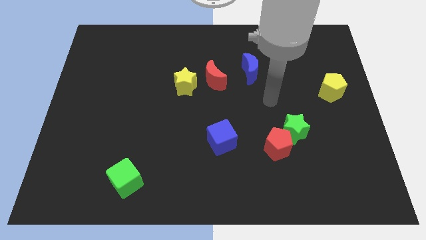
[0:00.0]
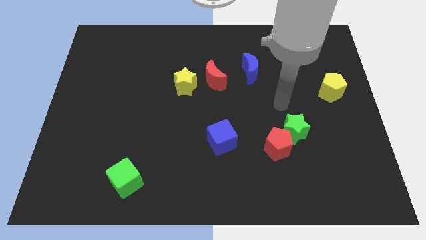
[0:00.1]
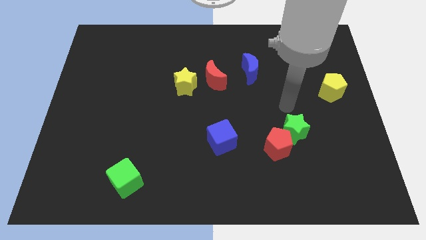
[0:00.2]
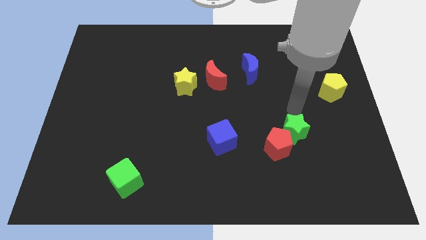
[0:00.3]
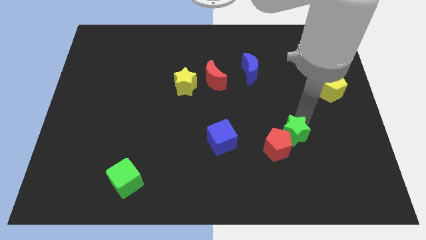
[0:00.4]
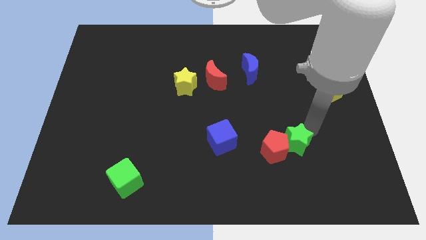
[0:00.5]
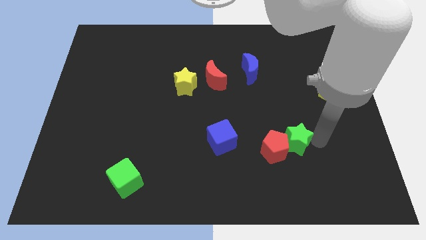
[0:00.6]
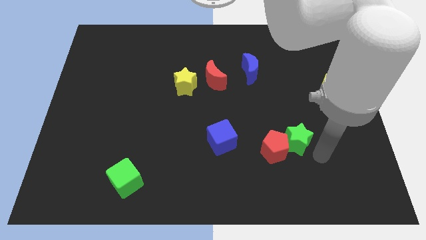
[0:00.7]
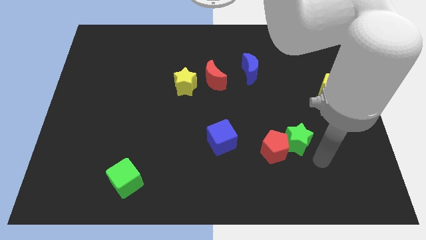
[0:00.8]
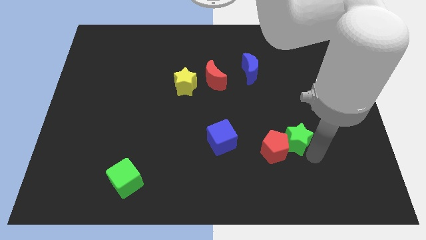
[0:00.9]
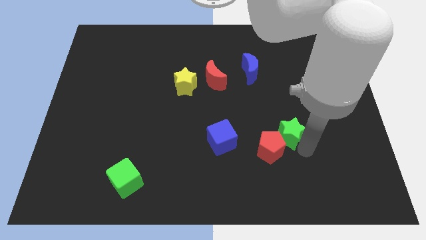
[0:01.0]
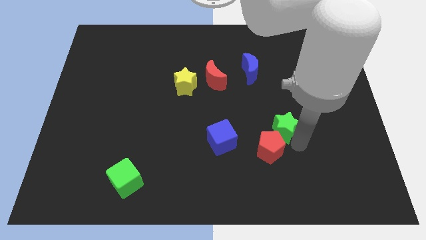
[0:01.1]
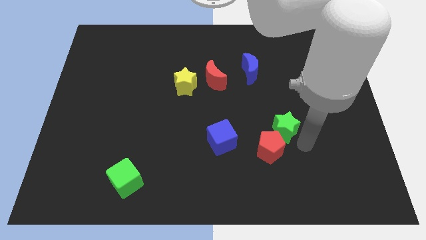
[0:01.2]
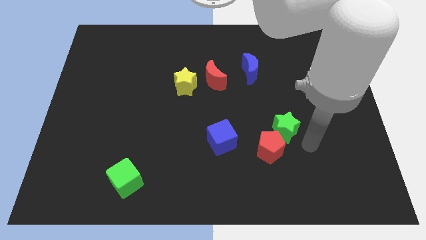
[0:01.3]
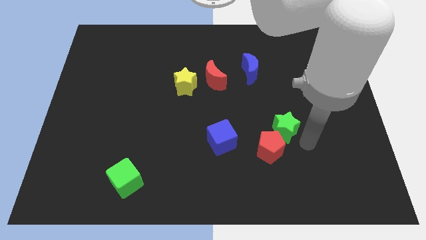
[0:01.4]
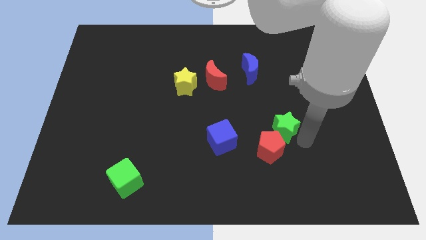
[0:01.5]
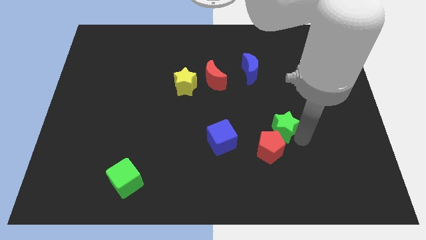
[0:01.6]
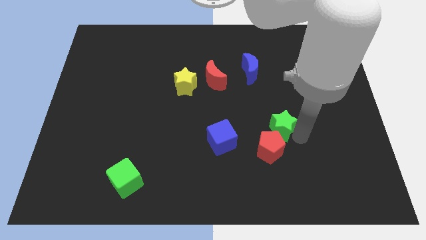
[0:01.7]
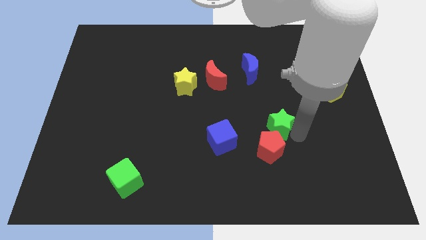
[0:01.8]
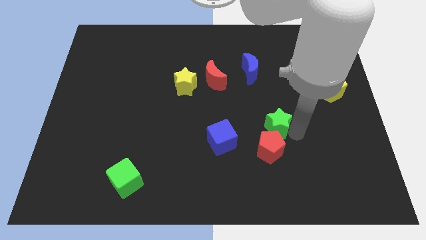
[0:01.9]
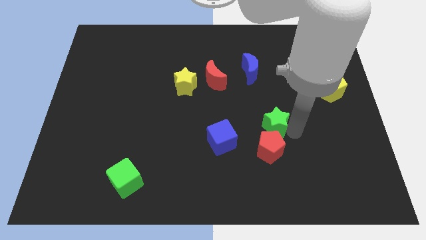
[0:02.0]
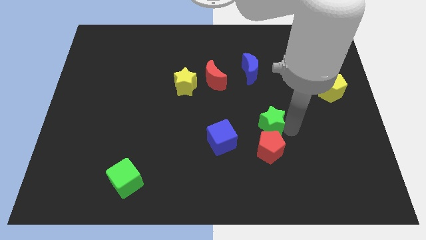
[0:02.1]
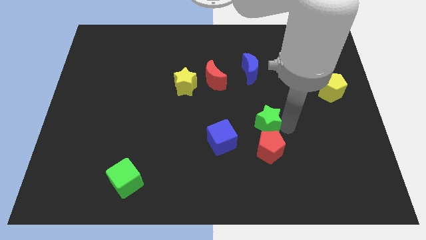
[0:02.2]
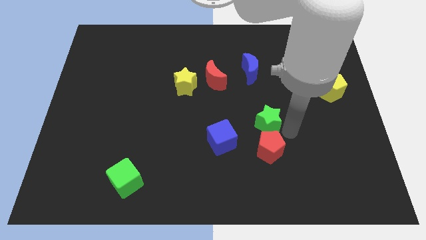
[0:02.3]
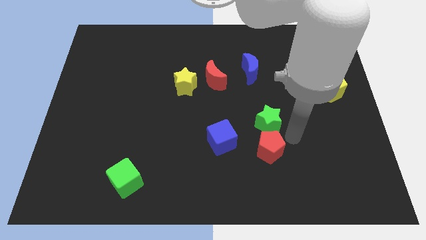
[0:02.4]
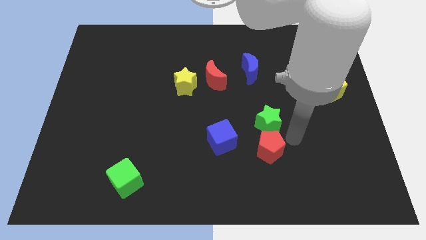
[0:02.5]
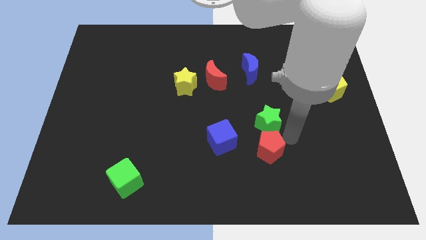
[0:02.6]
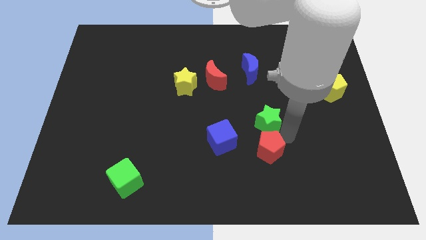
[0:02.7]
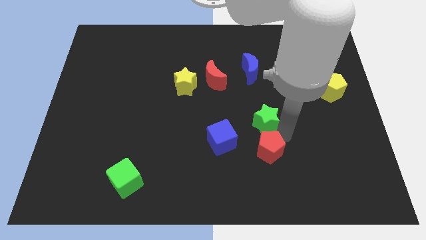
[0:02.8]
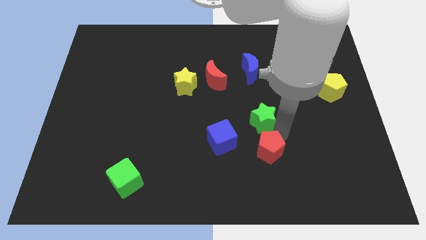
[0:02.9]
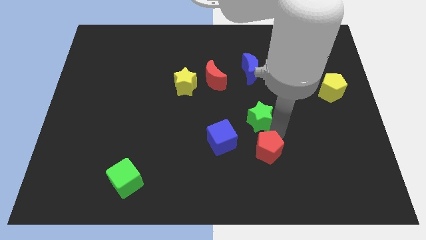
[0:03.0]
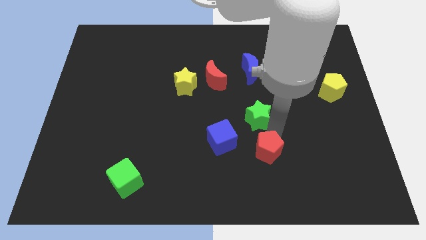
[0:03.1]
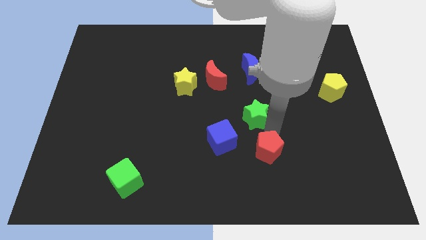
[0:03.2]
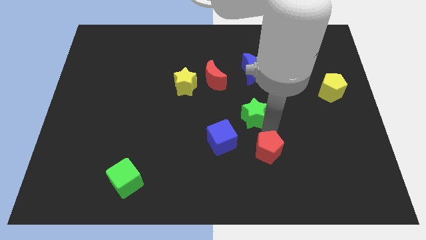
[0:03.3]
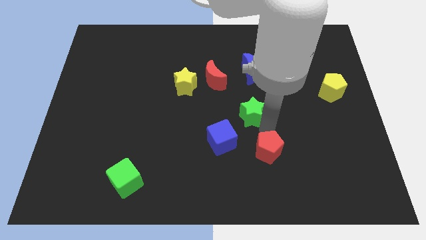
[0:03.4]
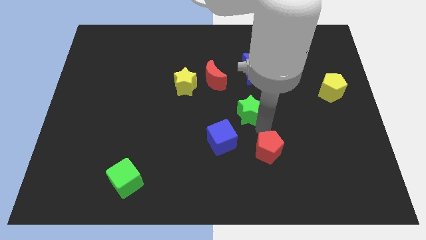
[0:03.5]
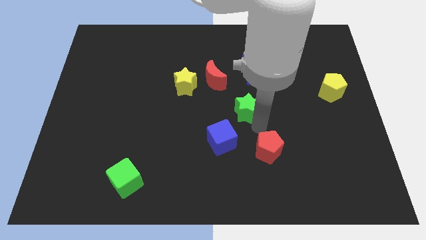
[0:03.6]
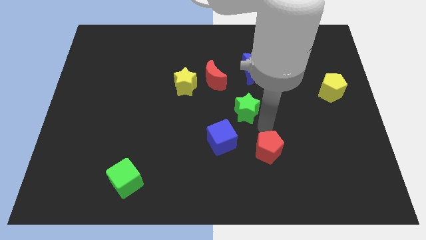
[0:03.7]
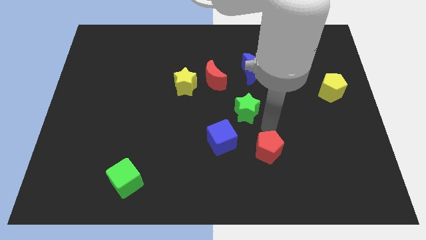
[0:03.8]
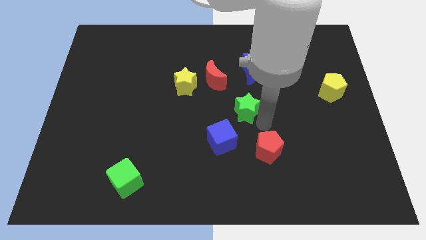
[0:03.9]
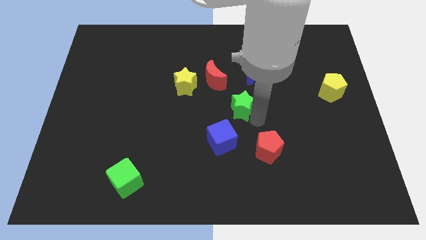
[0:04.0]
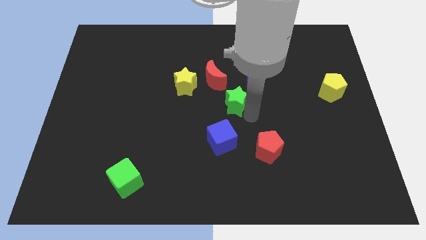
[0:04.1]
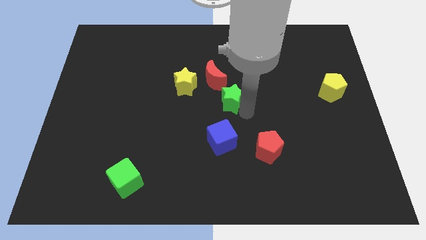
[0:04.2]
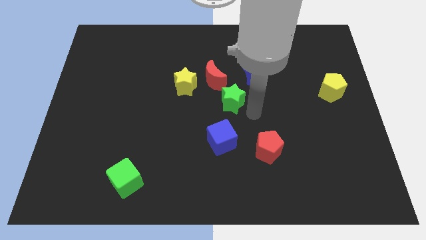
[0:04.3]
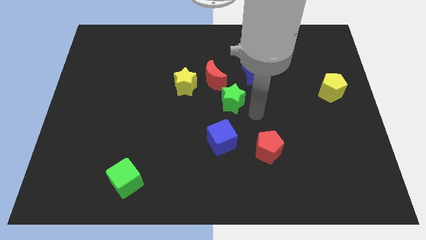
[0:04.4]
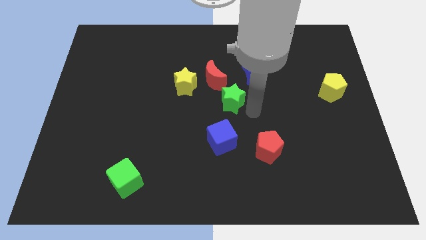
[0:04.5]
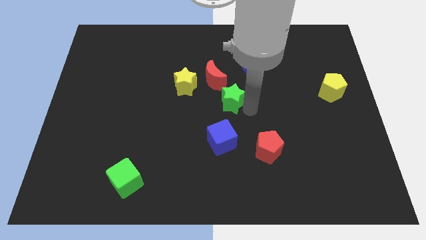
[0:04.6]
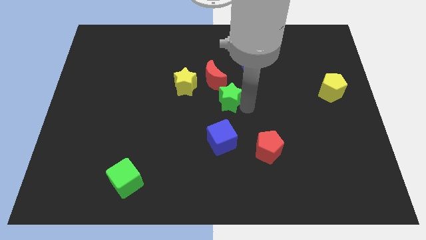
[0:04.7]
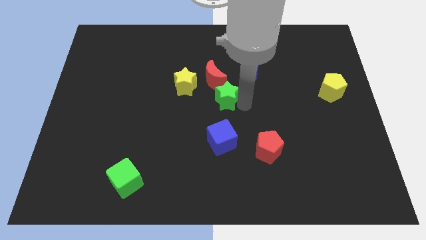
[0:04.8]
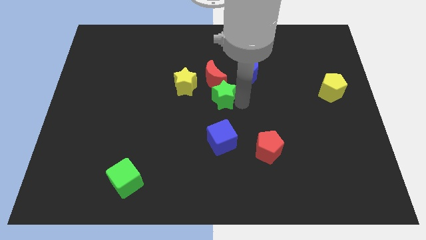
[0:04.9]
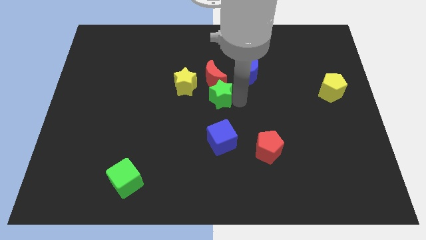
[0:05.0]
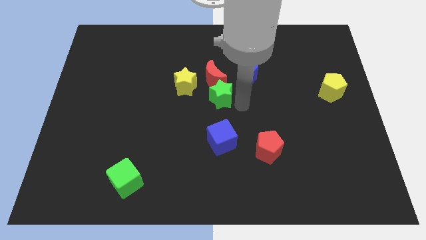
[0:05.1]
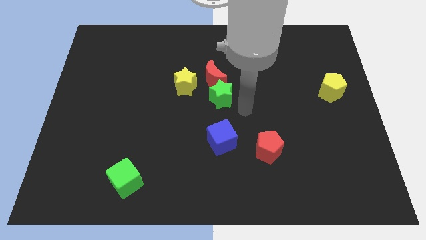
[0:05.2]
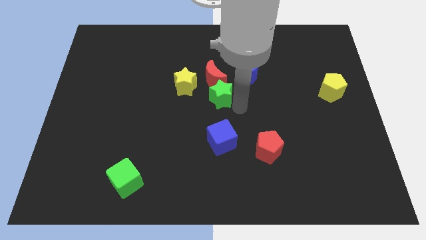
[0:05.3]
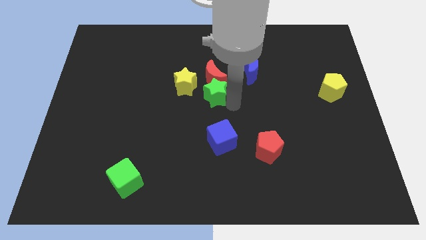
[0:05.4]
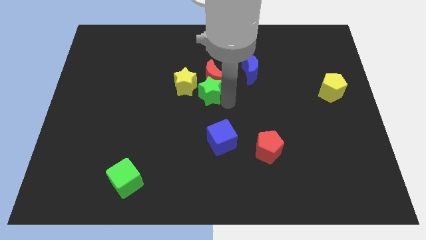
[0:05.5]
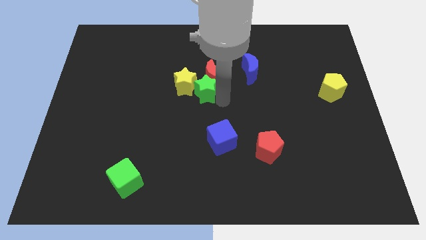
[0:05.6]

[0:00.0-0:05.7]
push the green star close to the yellow star

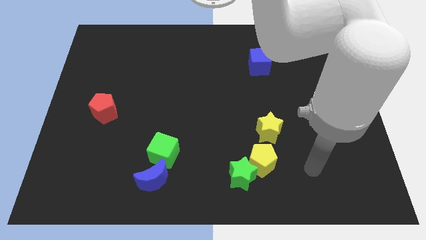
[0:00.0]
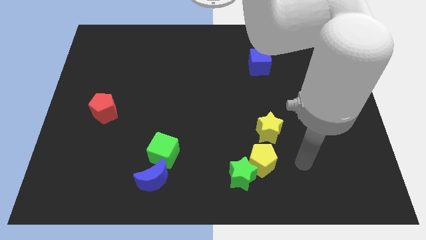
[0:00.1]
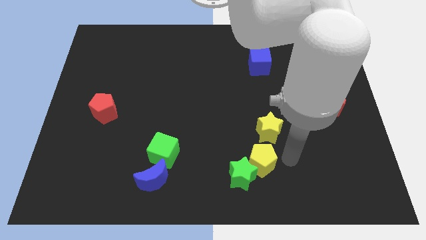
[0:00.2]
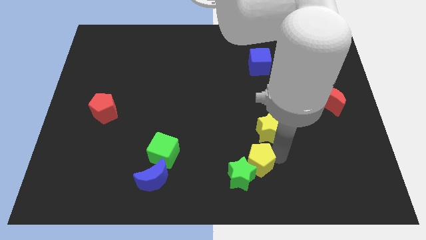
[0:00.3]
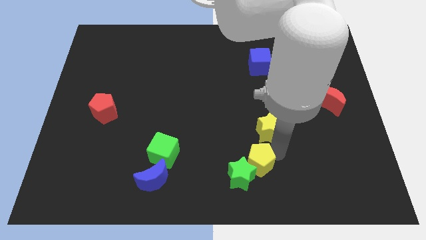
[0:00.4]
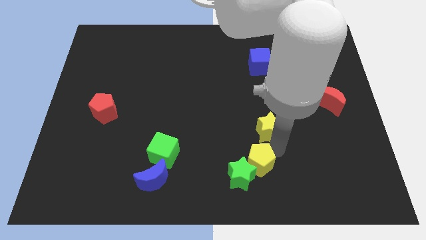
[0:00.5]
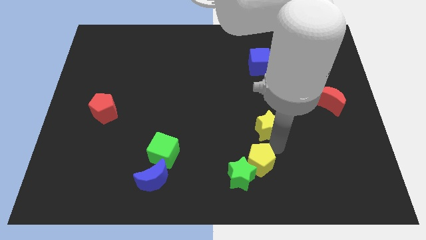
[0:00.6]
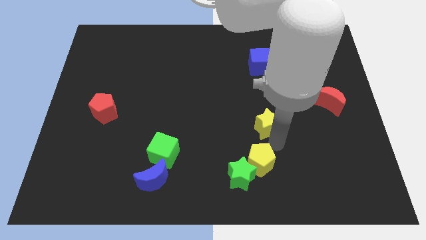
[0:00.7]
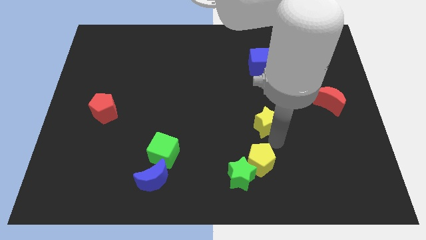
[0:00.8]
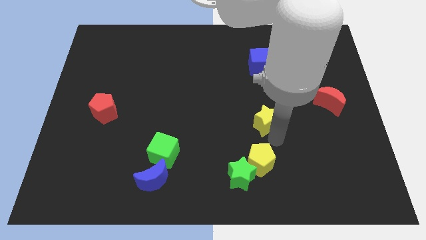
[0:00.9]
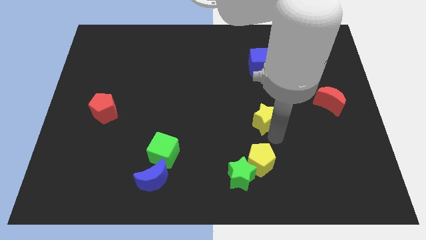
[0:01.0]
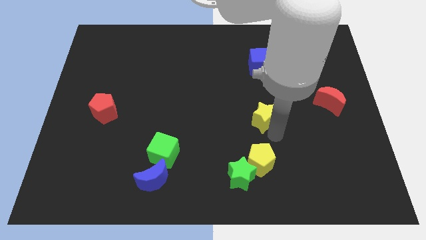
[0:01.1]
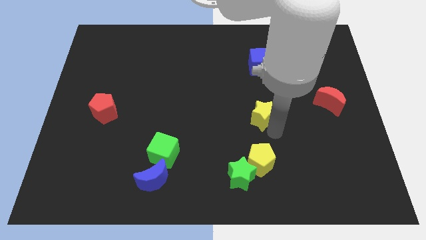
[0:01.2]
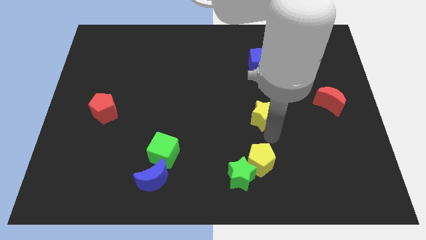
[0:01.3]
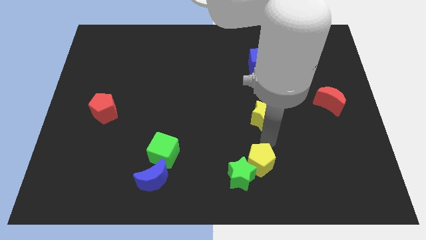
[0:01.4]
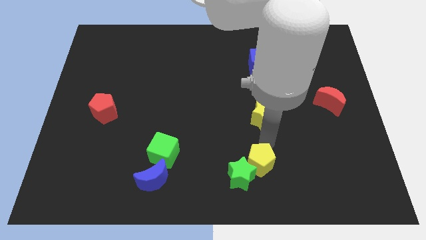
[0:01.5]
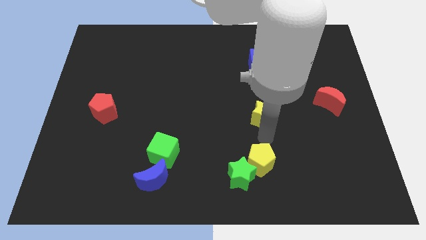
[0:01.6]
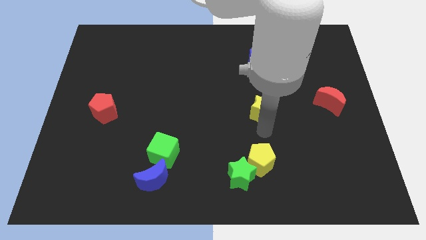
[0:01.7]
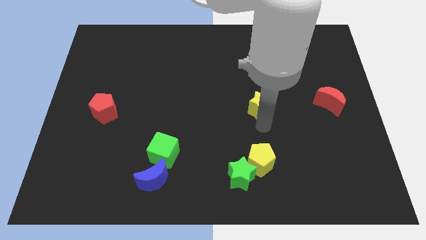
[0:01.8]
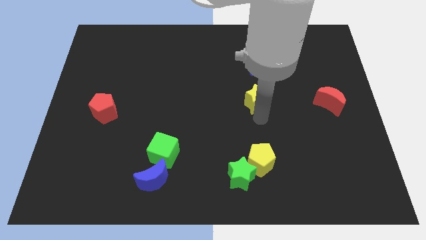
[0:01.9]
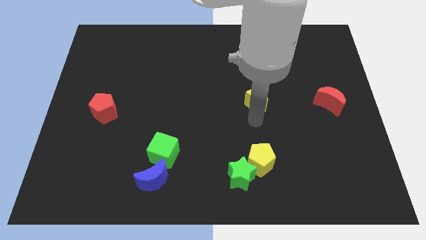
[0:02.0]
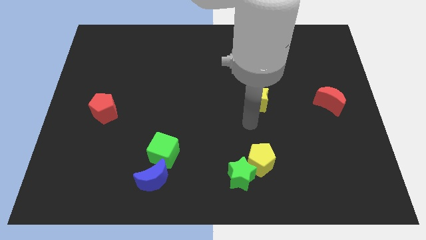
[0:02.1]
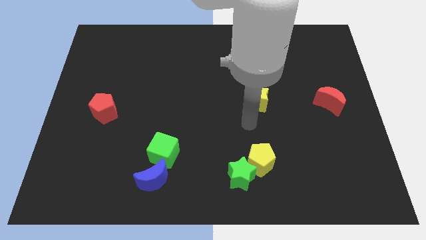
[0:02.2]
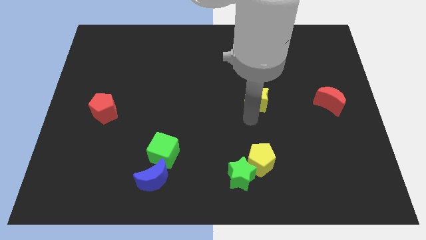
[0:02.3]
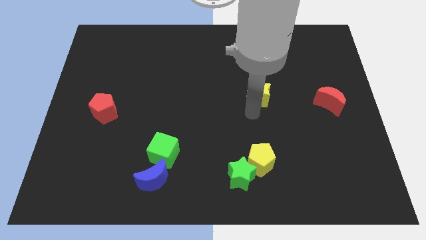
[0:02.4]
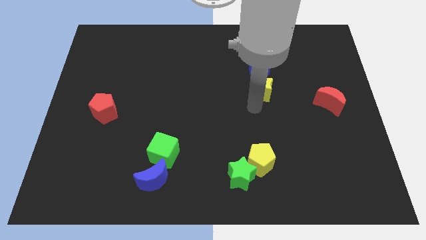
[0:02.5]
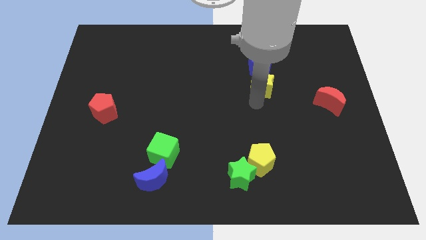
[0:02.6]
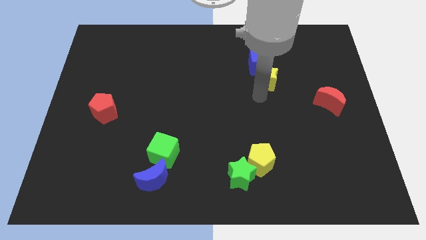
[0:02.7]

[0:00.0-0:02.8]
move the yellow star close to the blue cube
